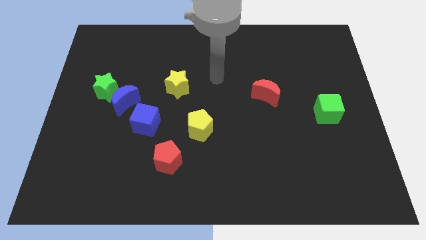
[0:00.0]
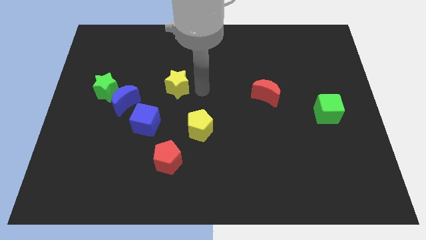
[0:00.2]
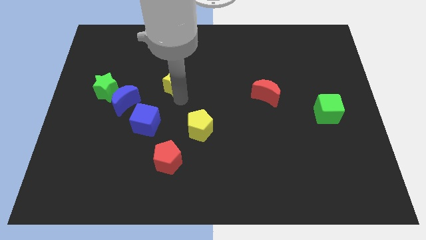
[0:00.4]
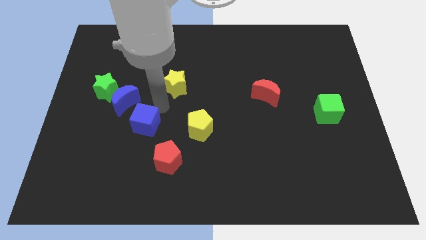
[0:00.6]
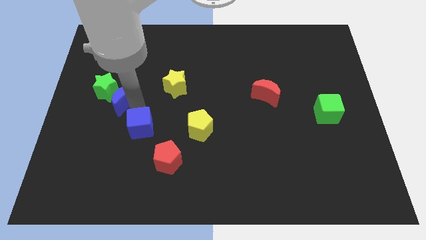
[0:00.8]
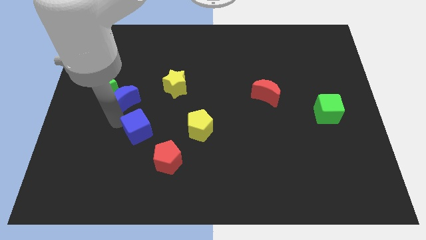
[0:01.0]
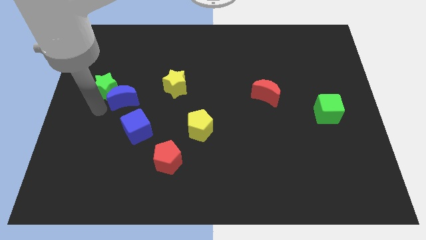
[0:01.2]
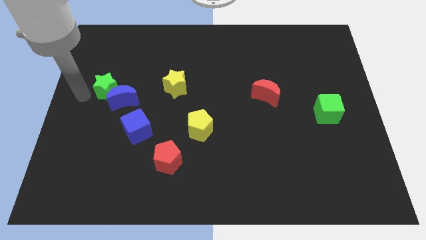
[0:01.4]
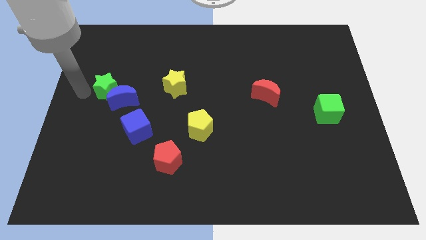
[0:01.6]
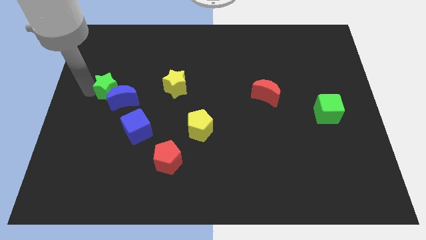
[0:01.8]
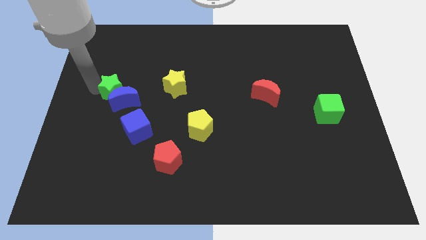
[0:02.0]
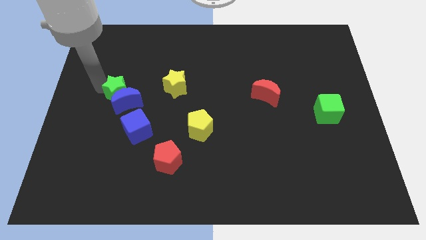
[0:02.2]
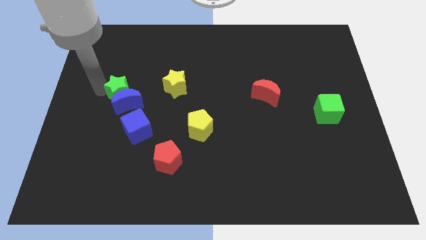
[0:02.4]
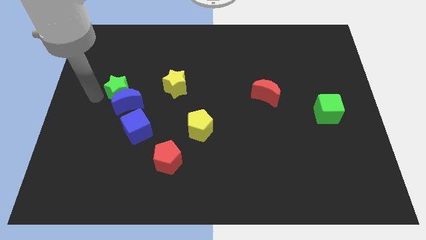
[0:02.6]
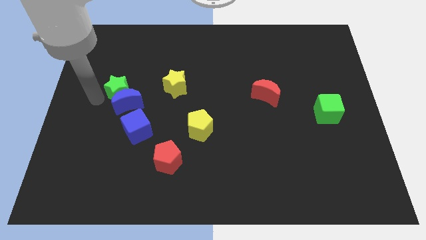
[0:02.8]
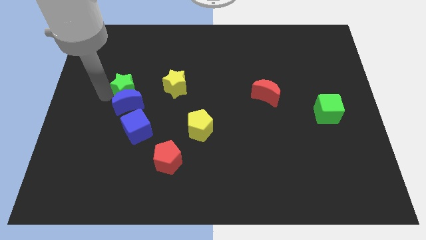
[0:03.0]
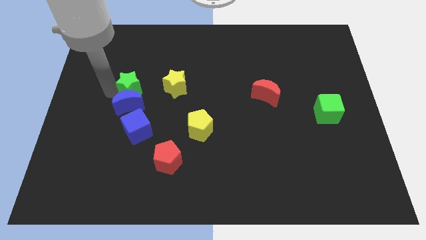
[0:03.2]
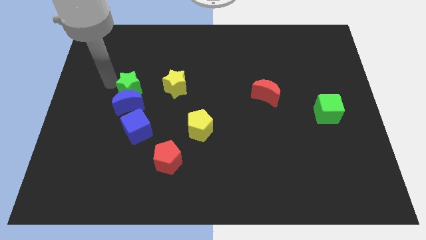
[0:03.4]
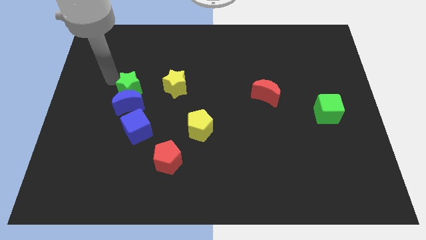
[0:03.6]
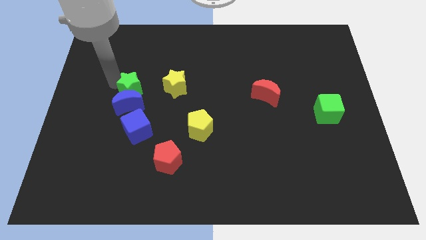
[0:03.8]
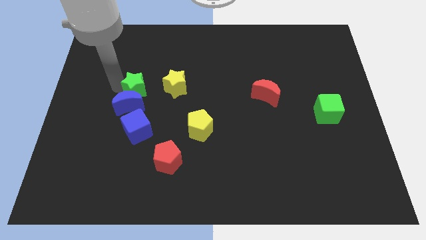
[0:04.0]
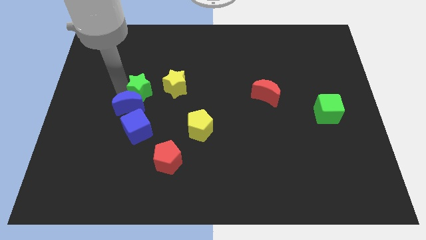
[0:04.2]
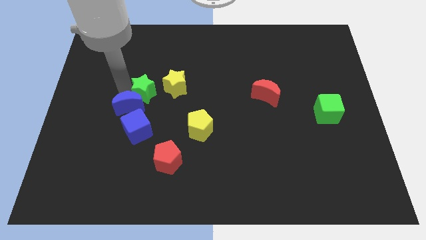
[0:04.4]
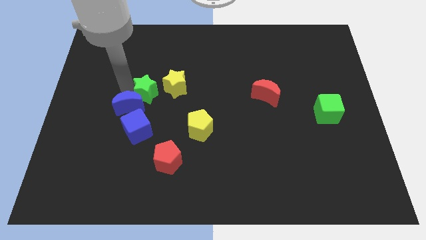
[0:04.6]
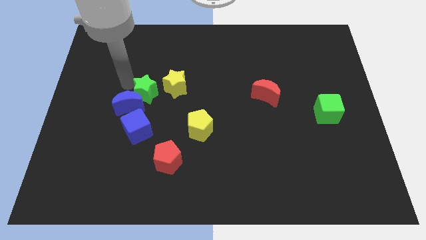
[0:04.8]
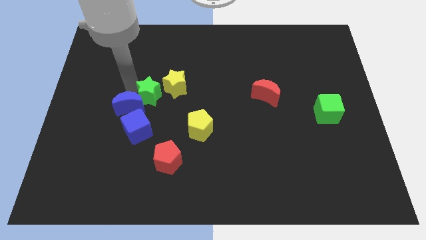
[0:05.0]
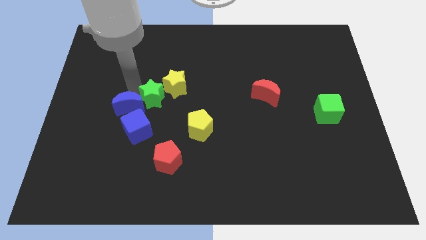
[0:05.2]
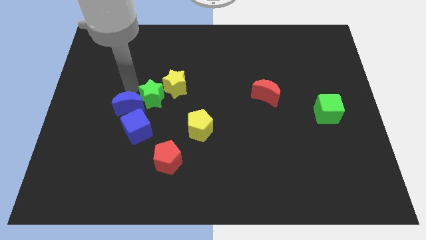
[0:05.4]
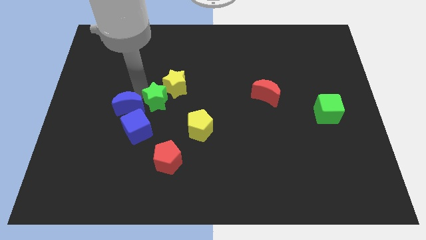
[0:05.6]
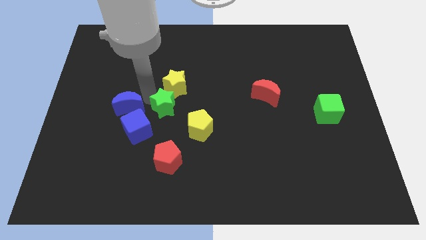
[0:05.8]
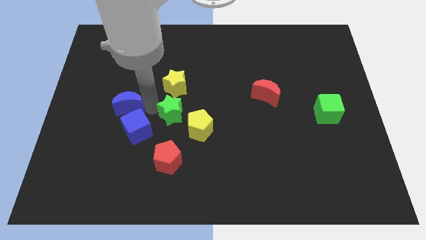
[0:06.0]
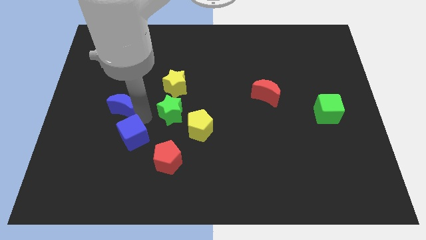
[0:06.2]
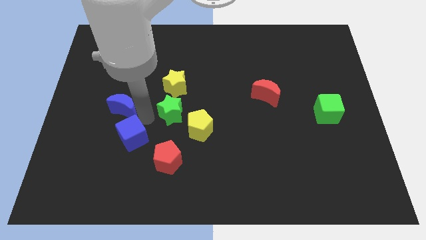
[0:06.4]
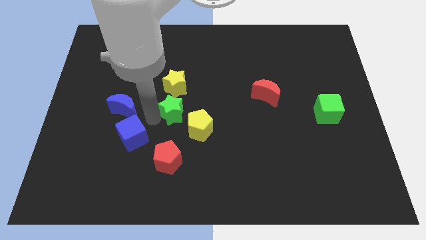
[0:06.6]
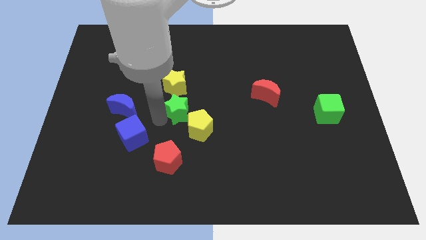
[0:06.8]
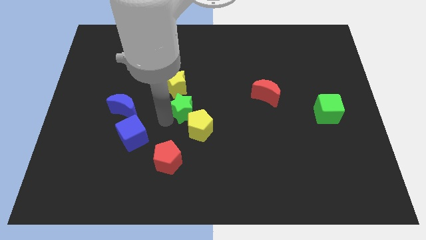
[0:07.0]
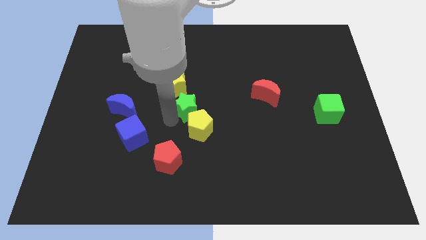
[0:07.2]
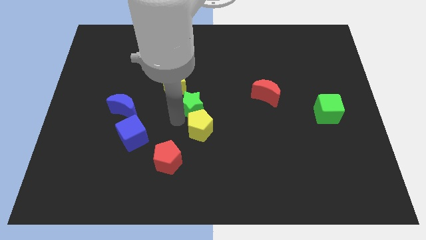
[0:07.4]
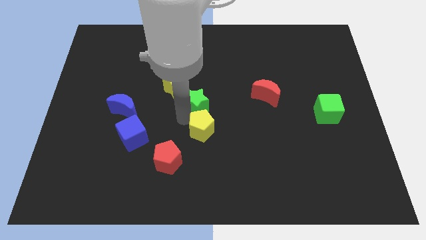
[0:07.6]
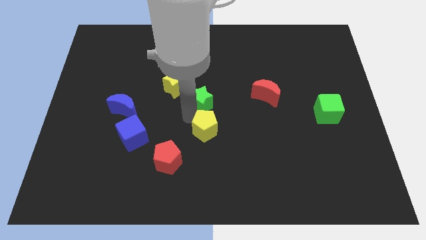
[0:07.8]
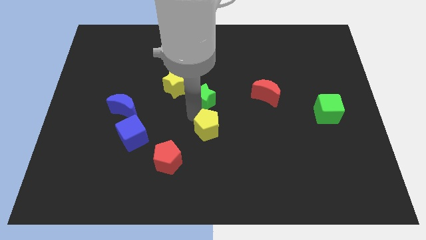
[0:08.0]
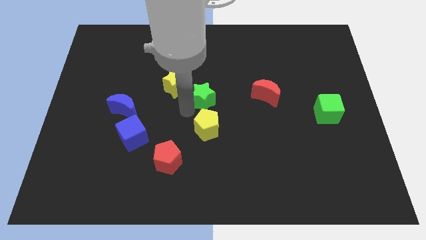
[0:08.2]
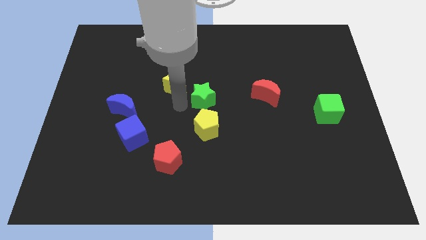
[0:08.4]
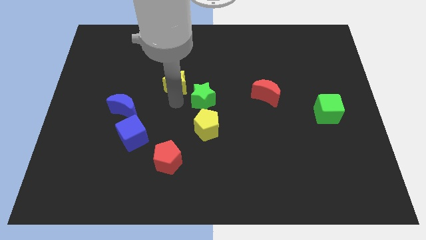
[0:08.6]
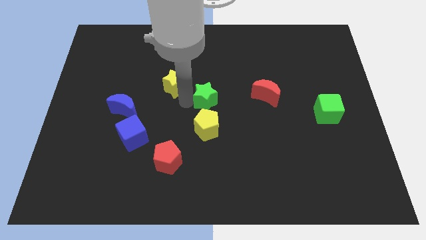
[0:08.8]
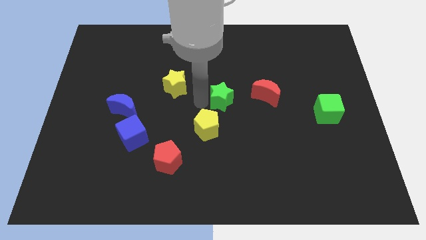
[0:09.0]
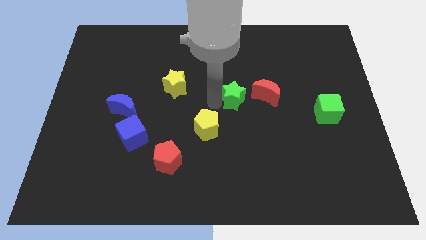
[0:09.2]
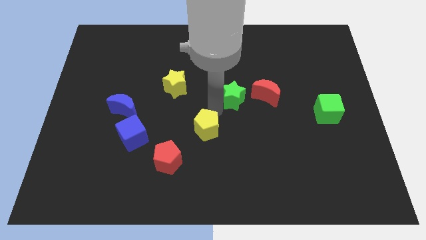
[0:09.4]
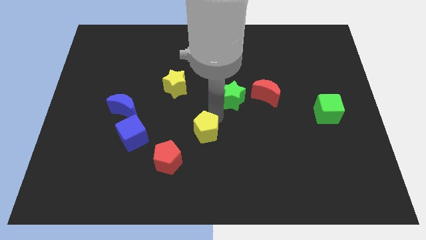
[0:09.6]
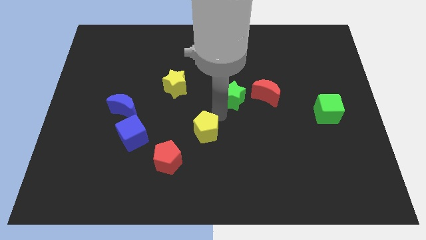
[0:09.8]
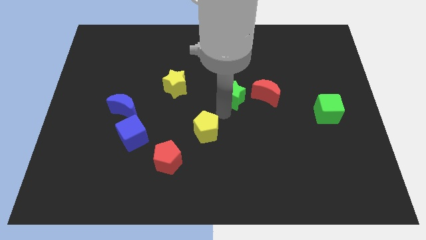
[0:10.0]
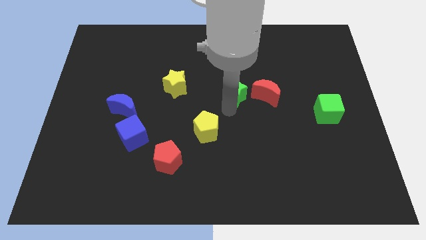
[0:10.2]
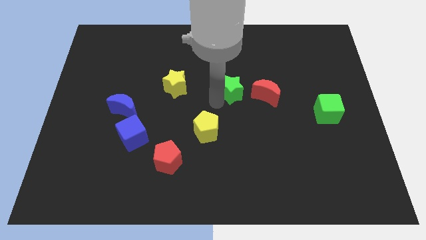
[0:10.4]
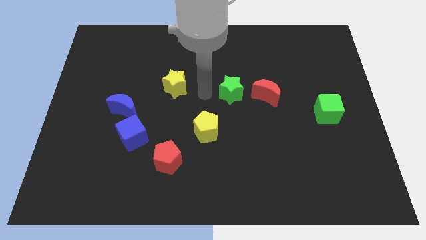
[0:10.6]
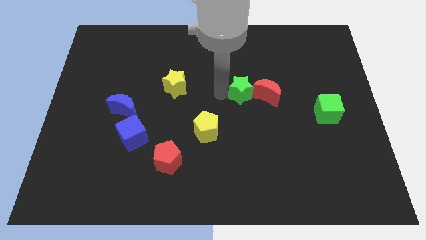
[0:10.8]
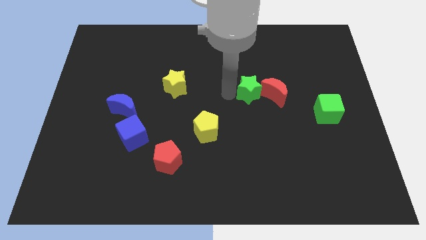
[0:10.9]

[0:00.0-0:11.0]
push the green star towards the red moon

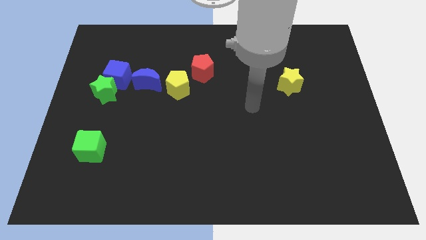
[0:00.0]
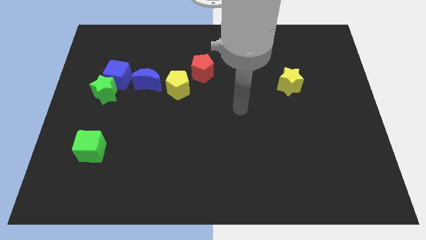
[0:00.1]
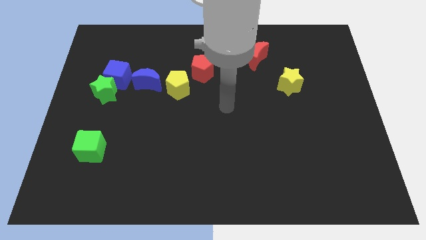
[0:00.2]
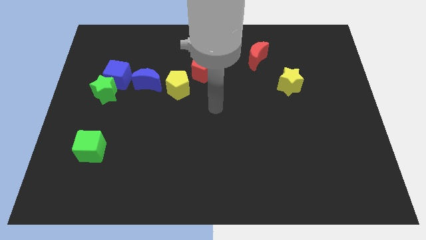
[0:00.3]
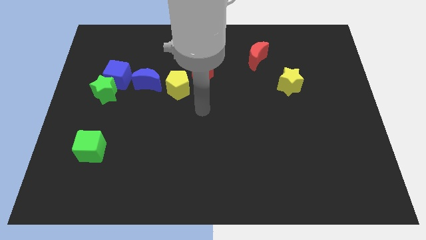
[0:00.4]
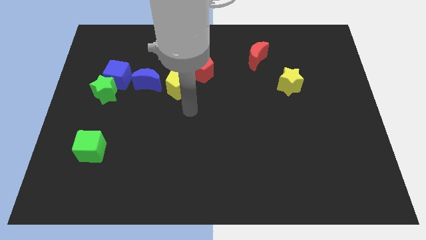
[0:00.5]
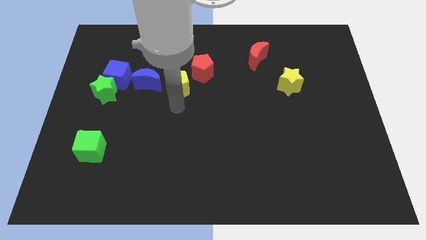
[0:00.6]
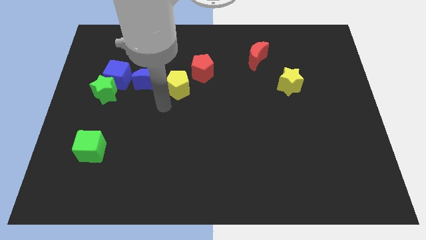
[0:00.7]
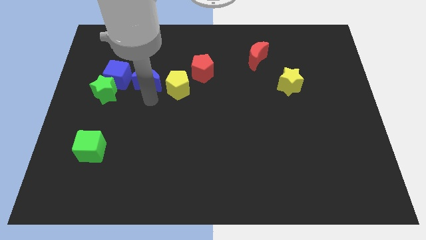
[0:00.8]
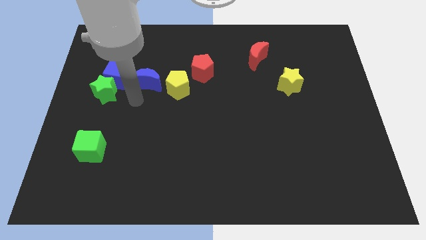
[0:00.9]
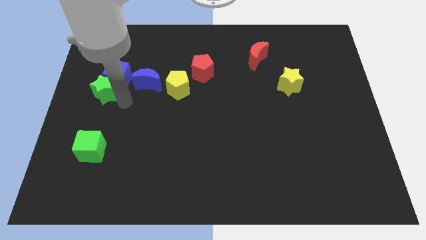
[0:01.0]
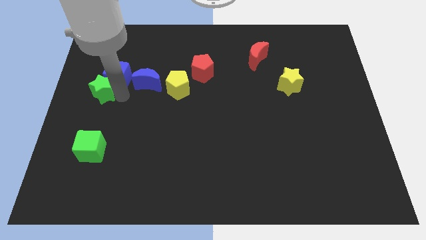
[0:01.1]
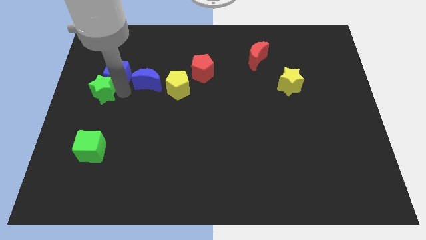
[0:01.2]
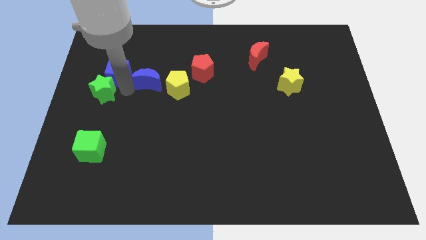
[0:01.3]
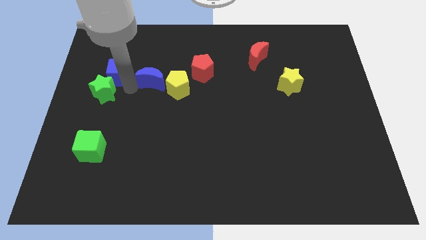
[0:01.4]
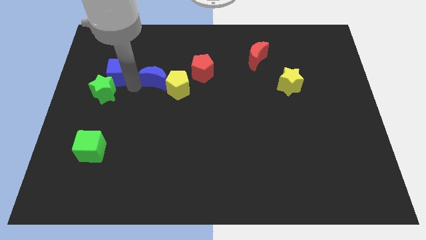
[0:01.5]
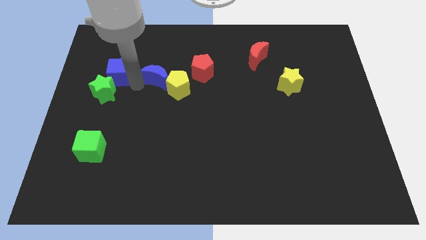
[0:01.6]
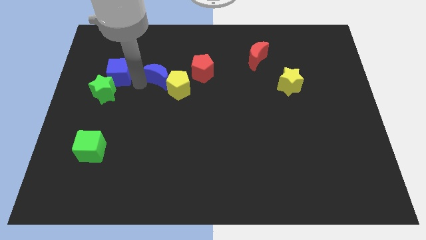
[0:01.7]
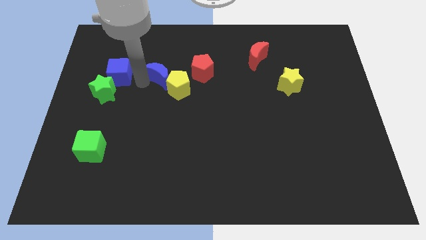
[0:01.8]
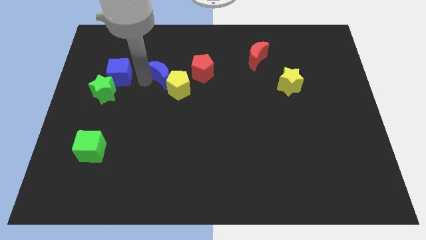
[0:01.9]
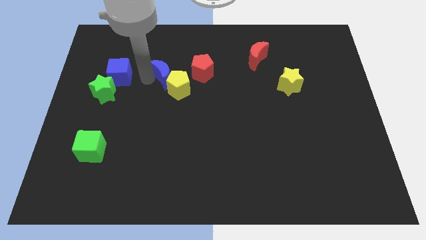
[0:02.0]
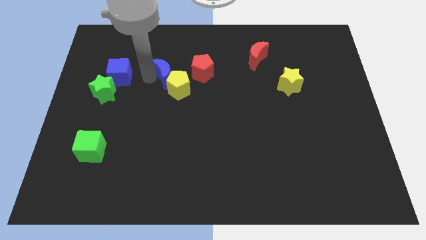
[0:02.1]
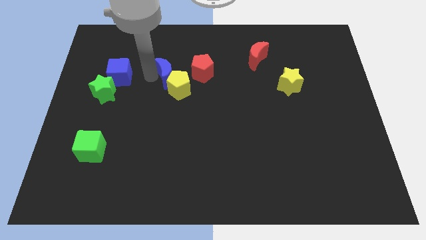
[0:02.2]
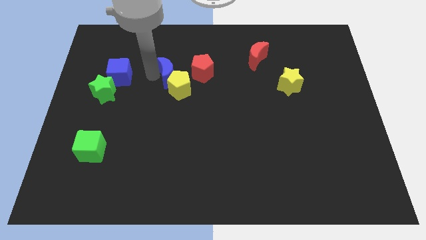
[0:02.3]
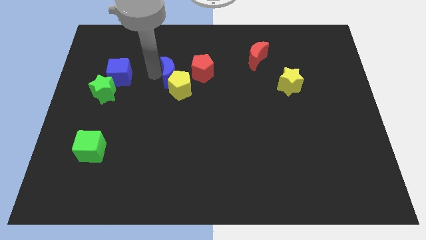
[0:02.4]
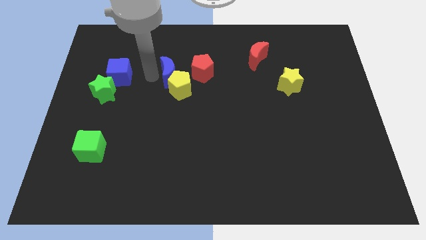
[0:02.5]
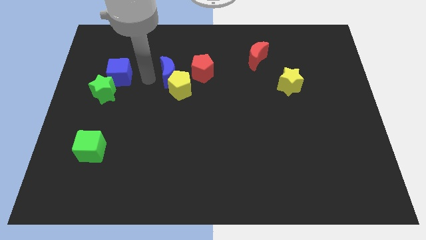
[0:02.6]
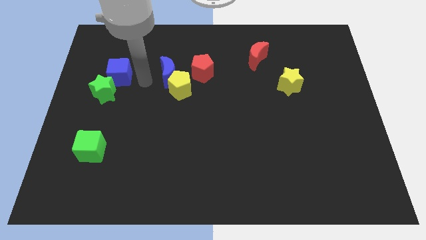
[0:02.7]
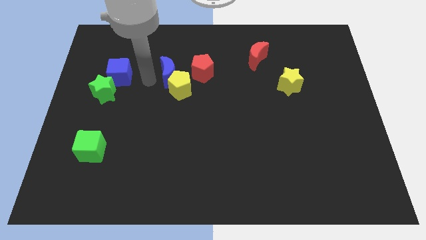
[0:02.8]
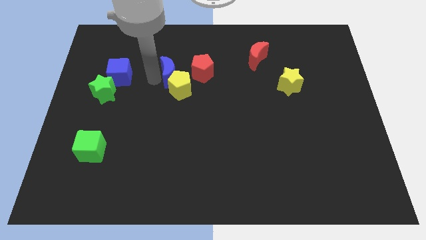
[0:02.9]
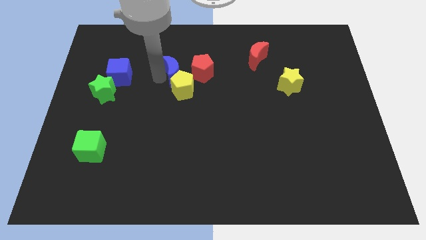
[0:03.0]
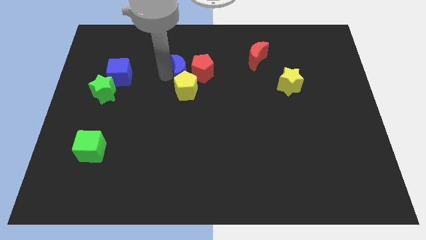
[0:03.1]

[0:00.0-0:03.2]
move the blue moon towards the red pentagon
